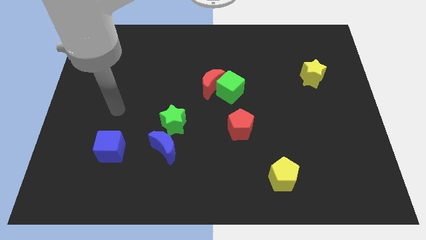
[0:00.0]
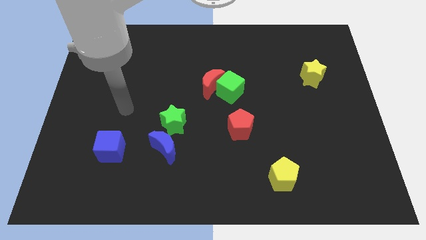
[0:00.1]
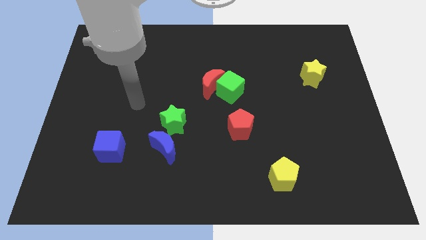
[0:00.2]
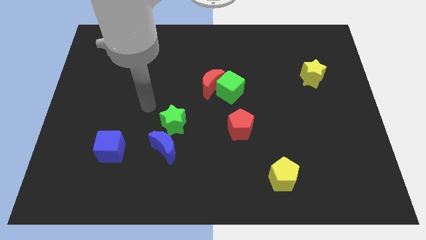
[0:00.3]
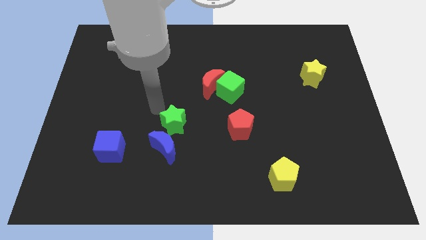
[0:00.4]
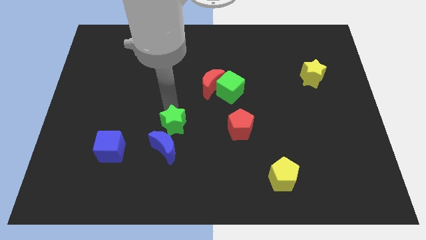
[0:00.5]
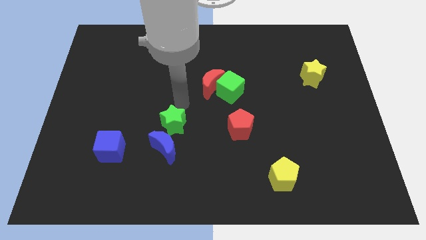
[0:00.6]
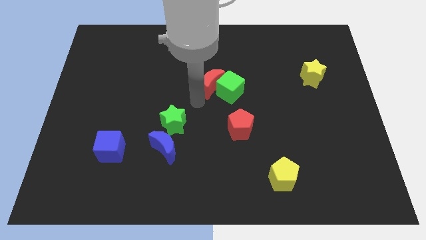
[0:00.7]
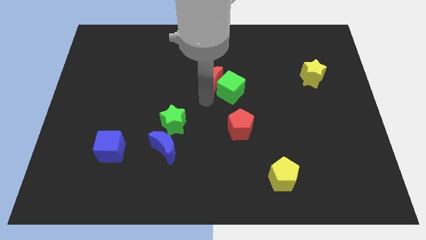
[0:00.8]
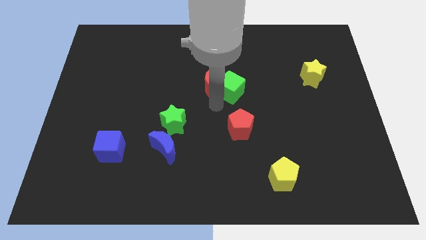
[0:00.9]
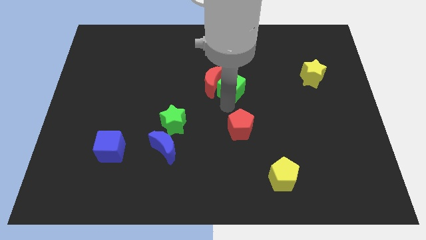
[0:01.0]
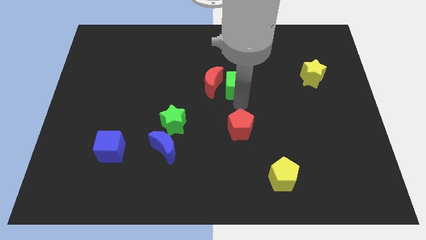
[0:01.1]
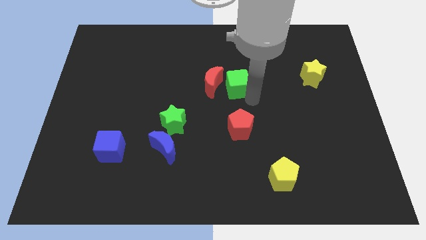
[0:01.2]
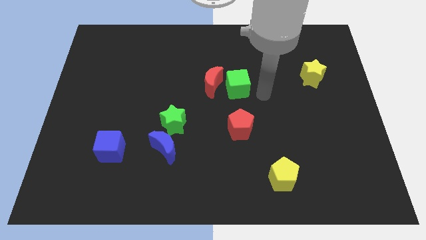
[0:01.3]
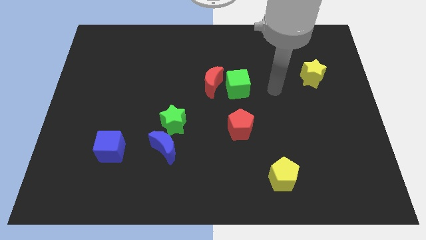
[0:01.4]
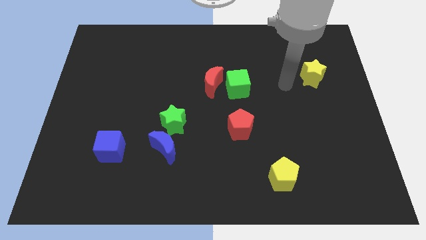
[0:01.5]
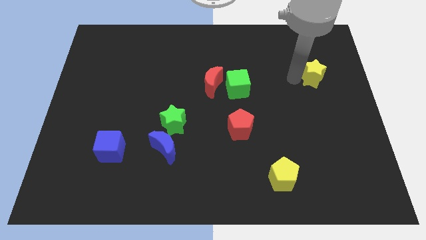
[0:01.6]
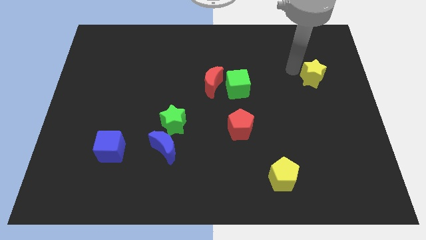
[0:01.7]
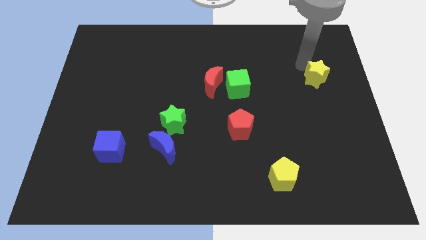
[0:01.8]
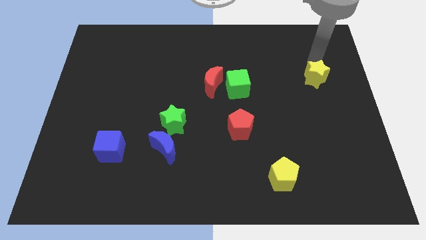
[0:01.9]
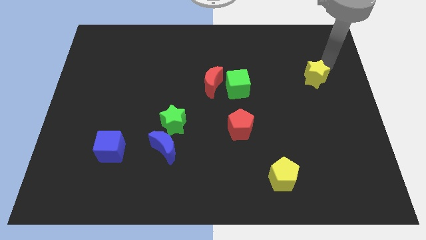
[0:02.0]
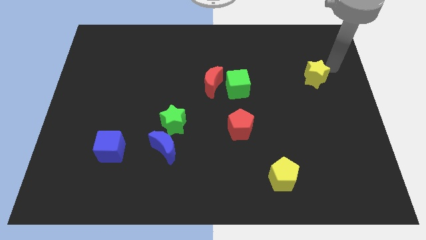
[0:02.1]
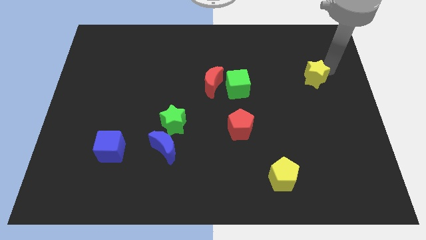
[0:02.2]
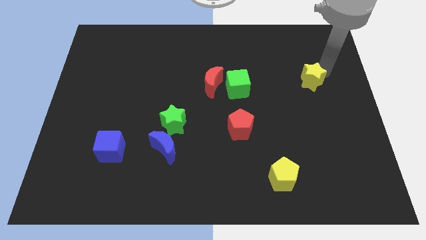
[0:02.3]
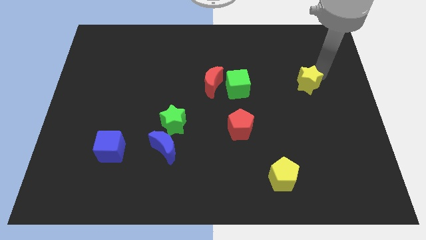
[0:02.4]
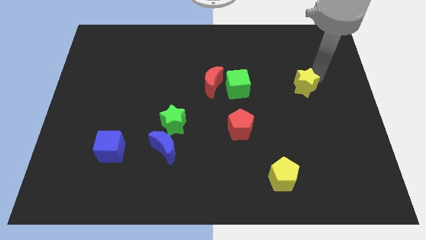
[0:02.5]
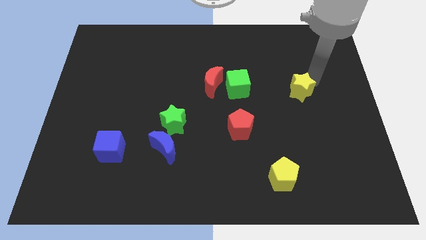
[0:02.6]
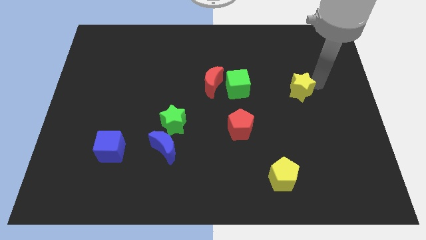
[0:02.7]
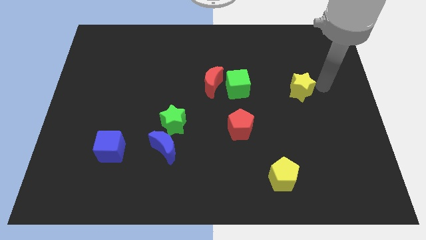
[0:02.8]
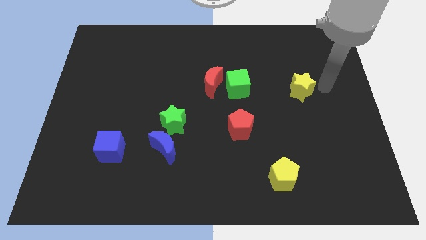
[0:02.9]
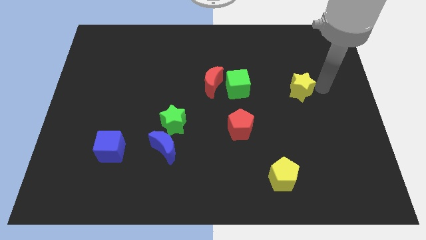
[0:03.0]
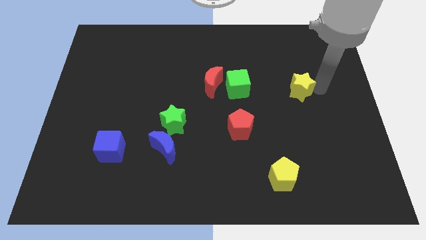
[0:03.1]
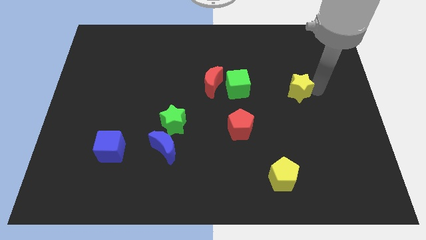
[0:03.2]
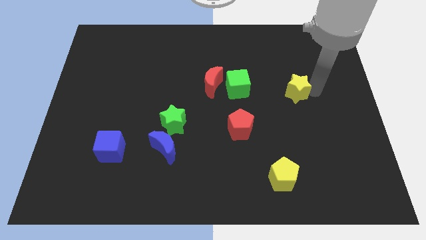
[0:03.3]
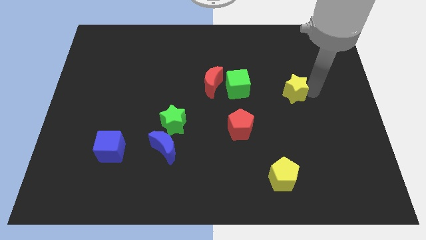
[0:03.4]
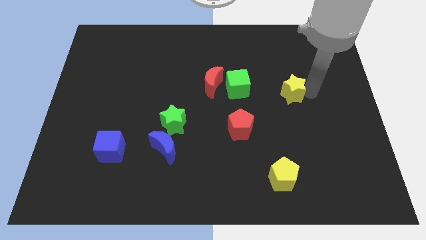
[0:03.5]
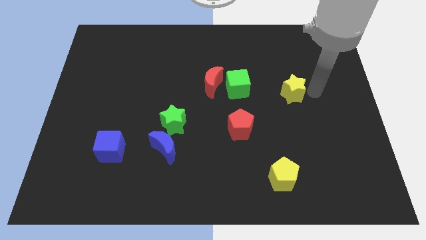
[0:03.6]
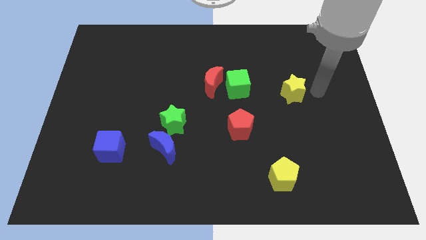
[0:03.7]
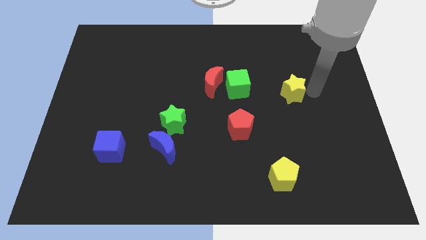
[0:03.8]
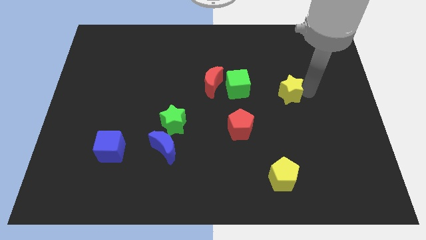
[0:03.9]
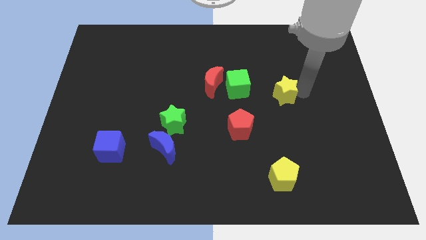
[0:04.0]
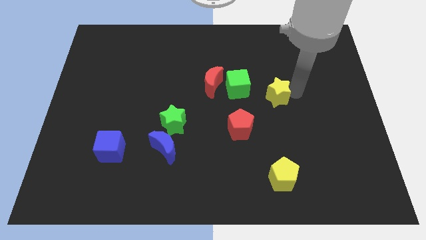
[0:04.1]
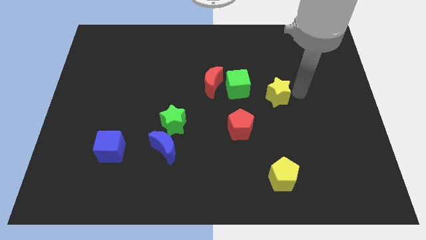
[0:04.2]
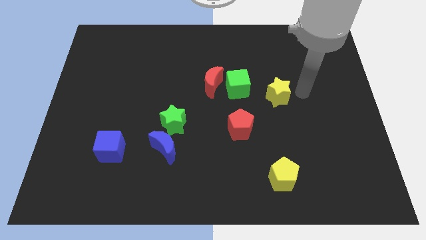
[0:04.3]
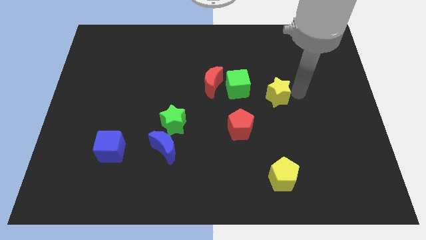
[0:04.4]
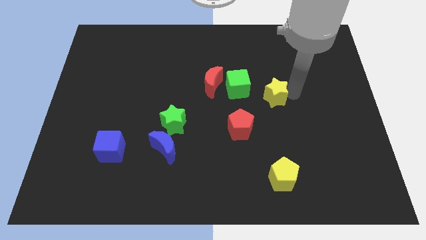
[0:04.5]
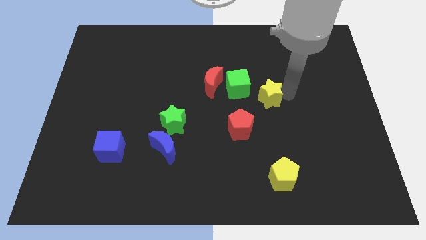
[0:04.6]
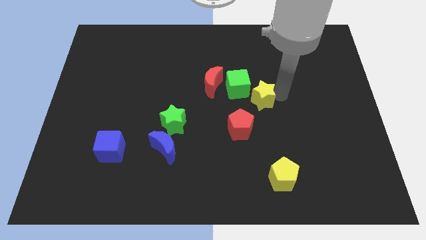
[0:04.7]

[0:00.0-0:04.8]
push the yellow star to the center

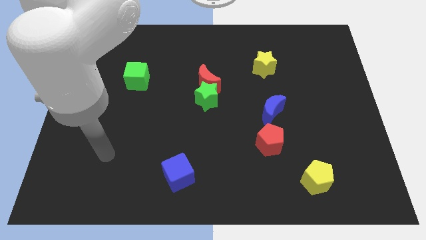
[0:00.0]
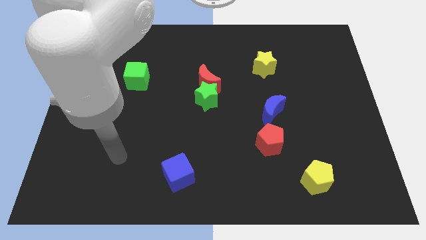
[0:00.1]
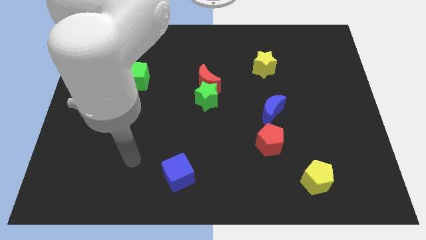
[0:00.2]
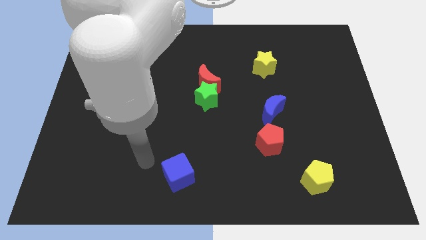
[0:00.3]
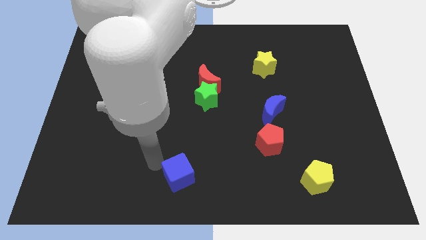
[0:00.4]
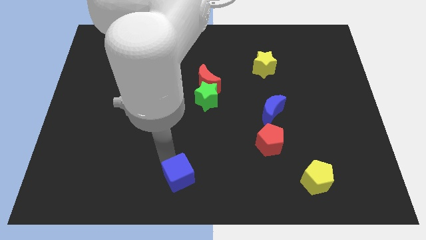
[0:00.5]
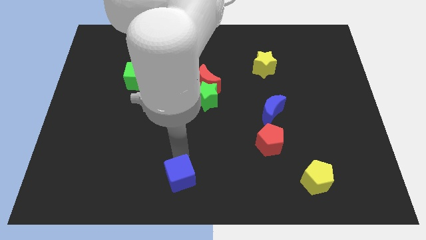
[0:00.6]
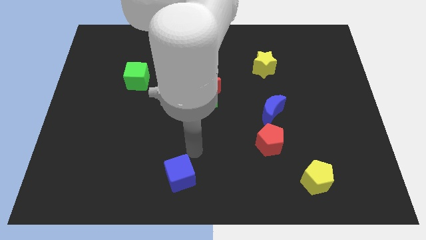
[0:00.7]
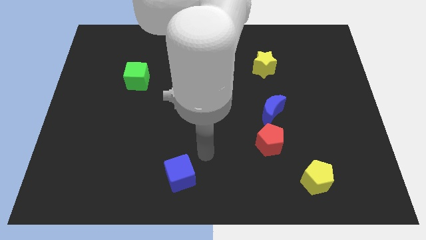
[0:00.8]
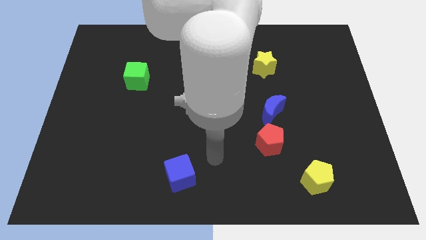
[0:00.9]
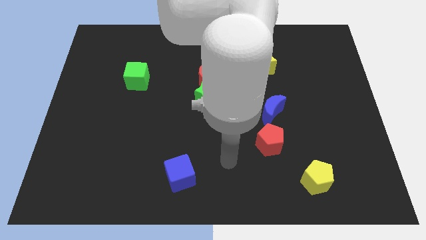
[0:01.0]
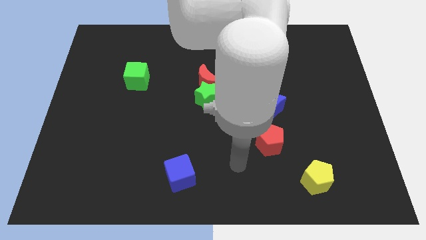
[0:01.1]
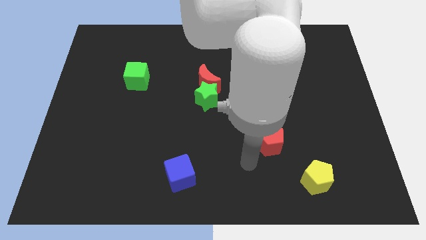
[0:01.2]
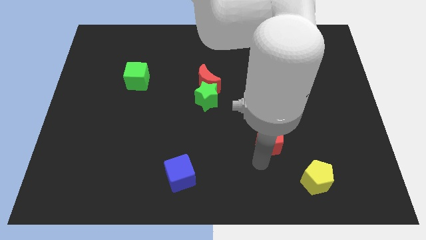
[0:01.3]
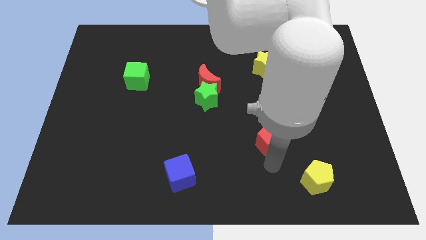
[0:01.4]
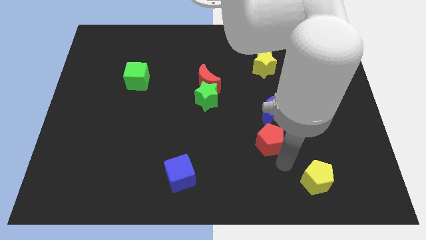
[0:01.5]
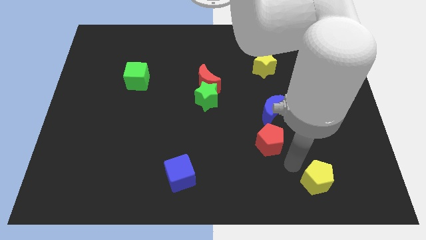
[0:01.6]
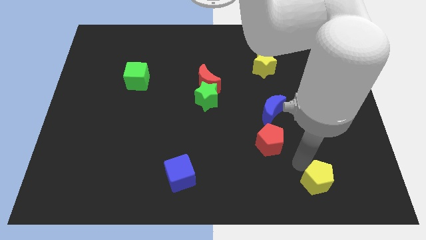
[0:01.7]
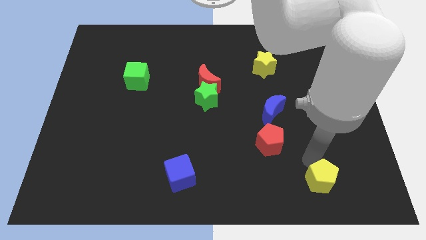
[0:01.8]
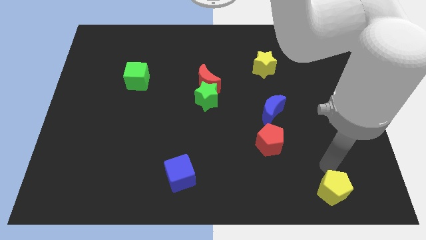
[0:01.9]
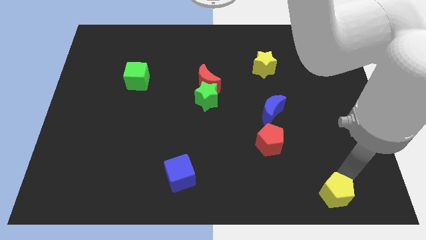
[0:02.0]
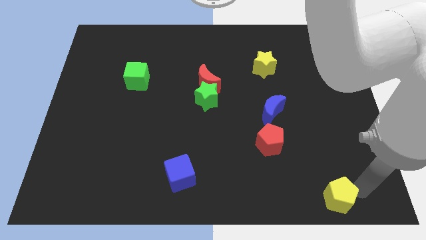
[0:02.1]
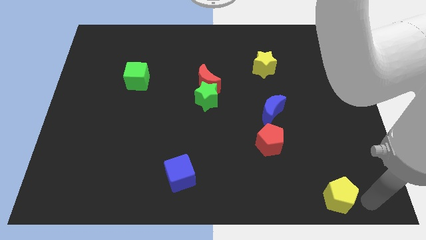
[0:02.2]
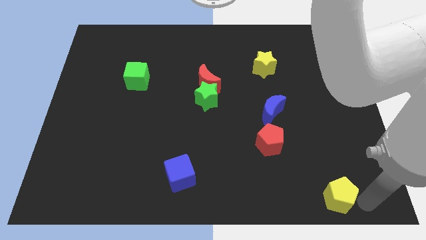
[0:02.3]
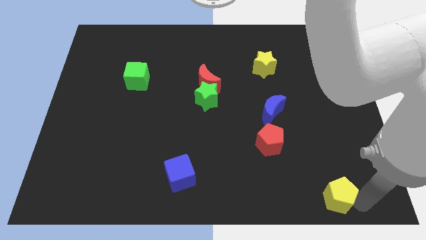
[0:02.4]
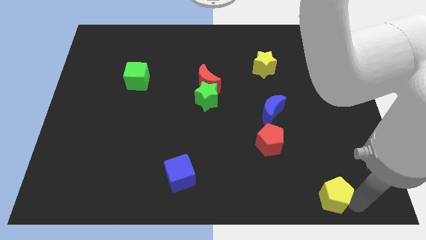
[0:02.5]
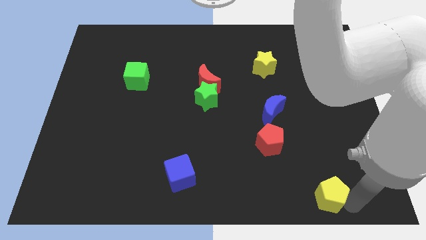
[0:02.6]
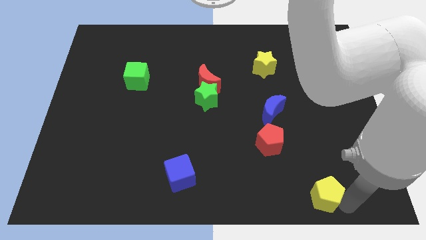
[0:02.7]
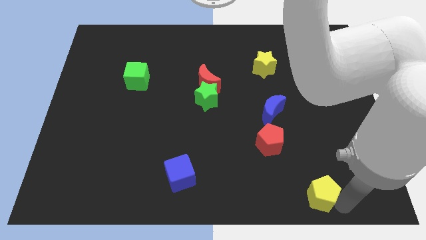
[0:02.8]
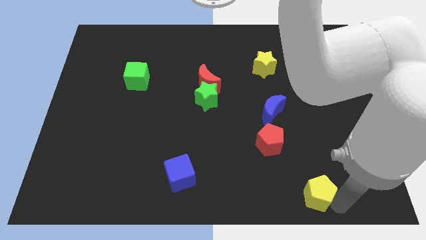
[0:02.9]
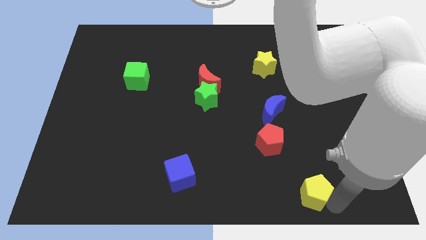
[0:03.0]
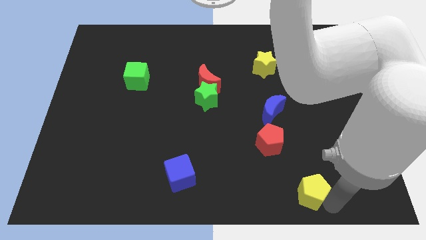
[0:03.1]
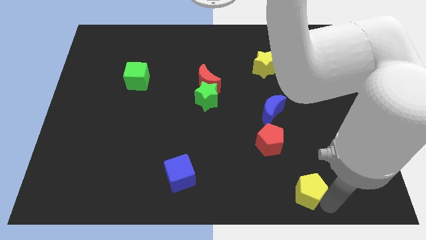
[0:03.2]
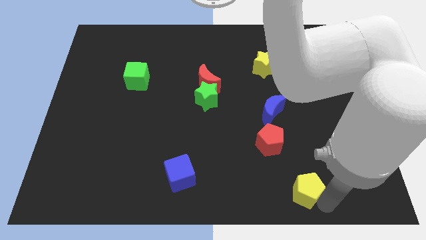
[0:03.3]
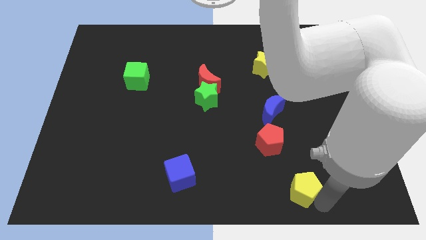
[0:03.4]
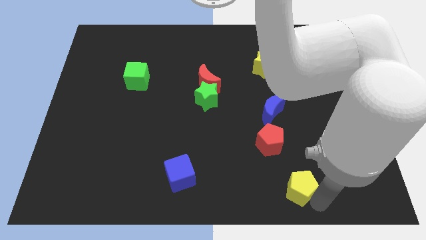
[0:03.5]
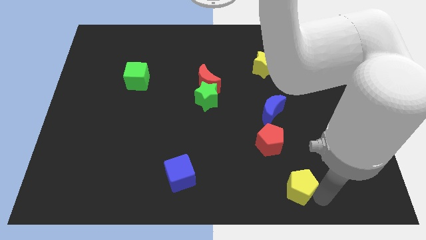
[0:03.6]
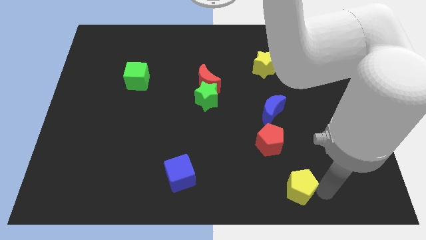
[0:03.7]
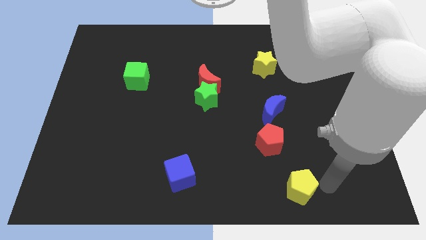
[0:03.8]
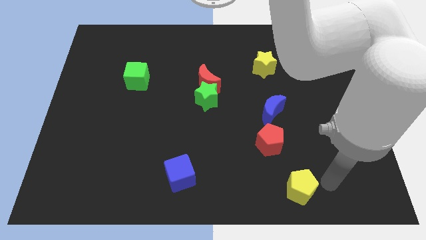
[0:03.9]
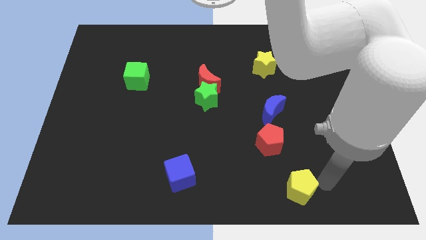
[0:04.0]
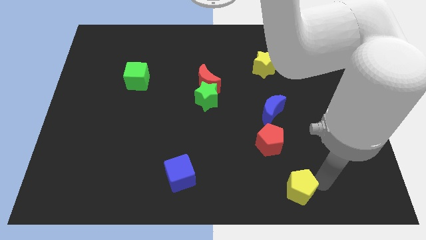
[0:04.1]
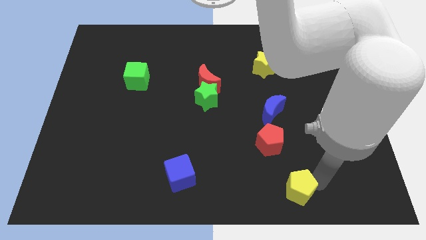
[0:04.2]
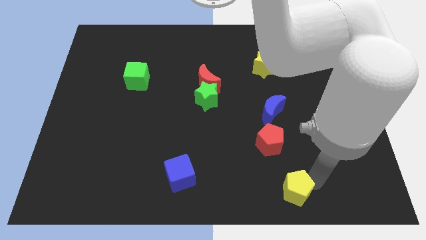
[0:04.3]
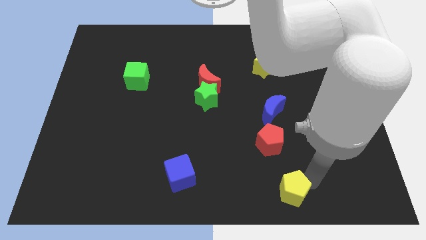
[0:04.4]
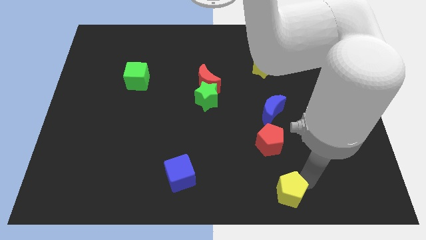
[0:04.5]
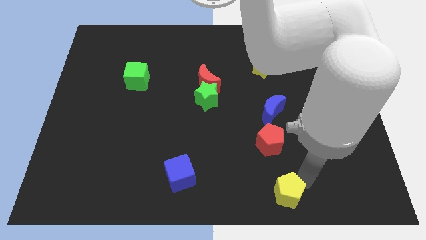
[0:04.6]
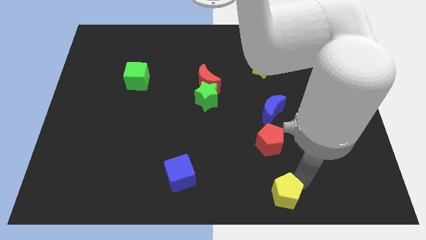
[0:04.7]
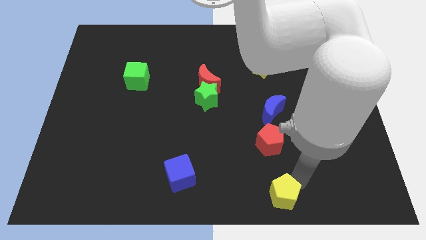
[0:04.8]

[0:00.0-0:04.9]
move the yellow pentagon to the bottom side
